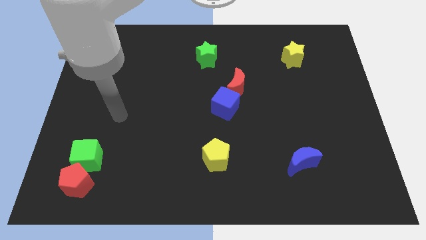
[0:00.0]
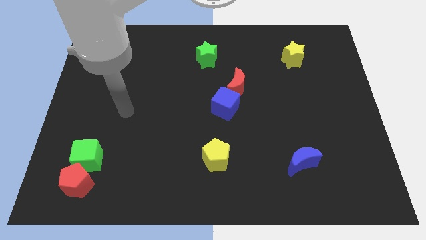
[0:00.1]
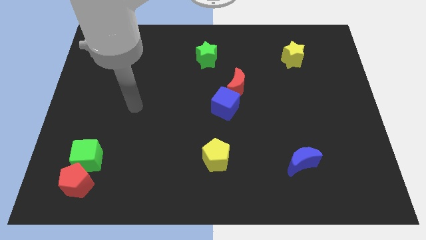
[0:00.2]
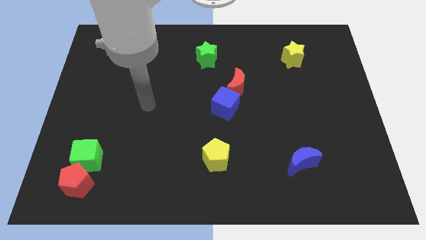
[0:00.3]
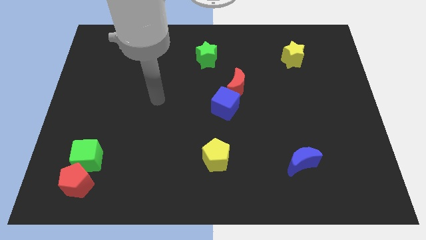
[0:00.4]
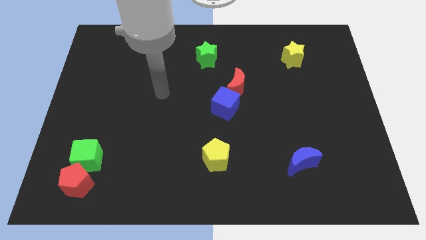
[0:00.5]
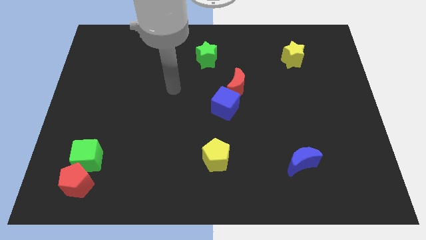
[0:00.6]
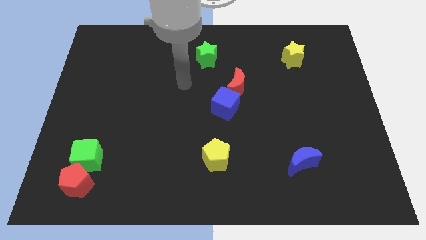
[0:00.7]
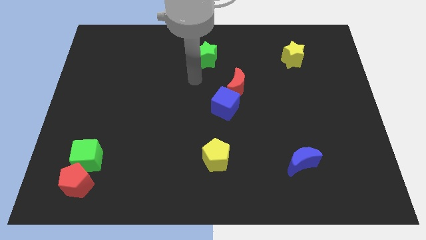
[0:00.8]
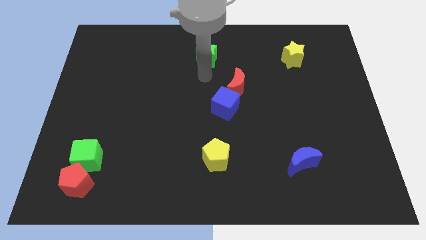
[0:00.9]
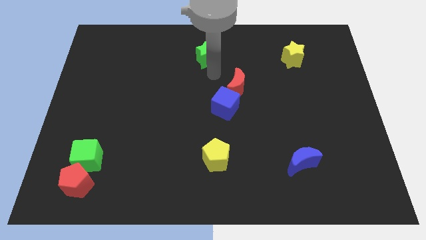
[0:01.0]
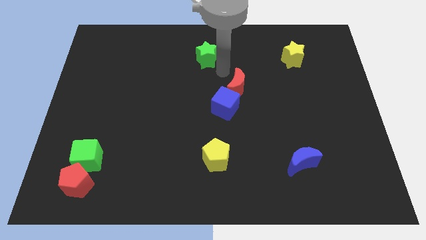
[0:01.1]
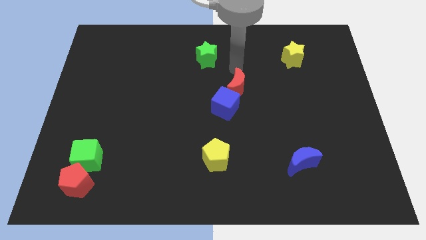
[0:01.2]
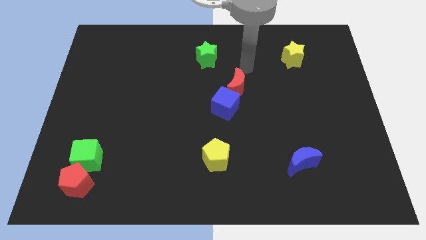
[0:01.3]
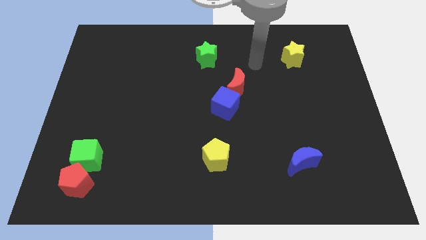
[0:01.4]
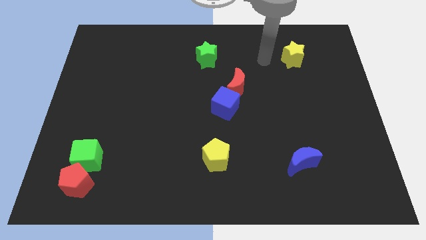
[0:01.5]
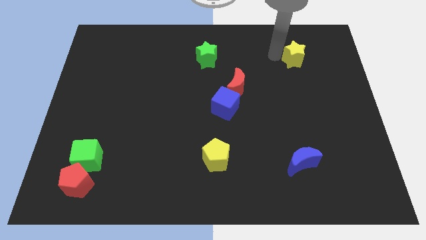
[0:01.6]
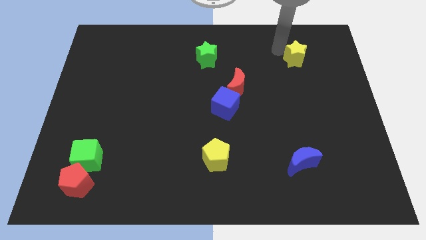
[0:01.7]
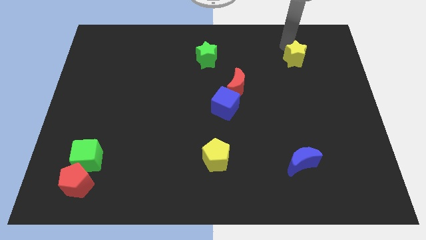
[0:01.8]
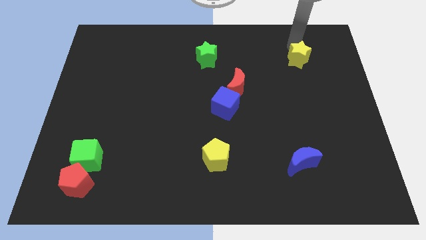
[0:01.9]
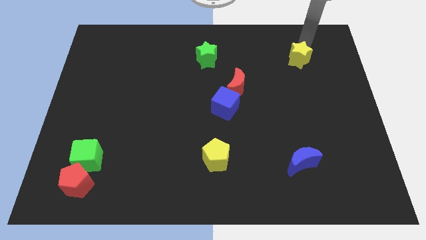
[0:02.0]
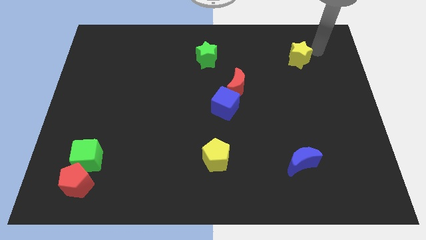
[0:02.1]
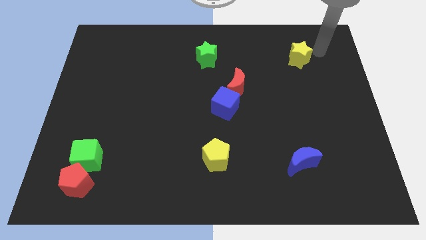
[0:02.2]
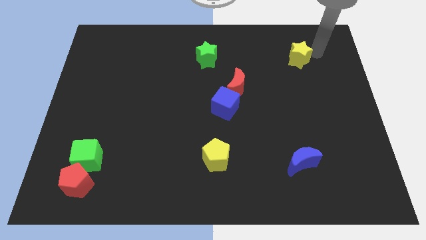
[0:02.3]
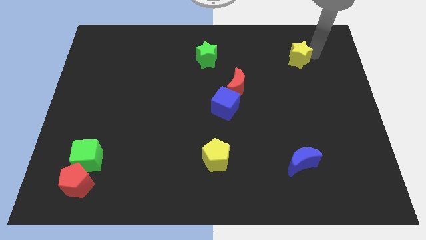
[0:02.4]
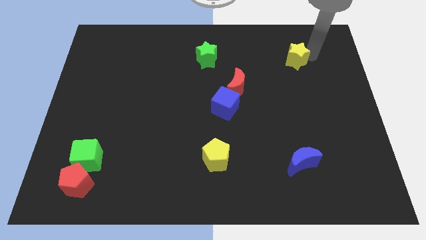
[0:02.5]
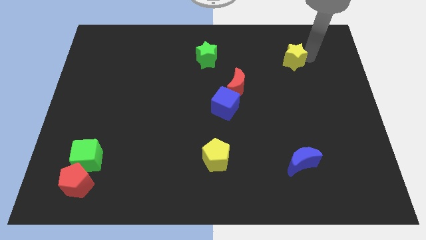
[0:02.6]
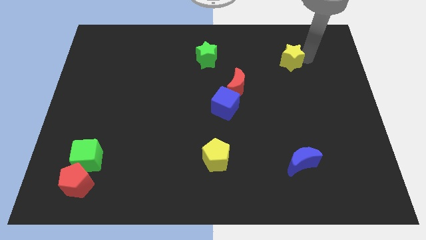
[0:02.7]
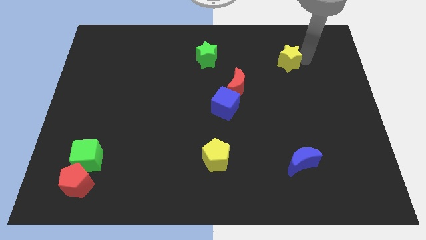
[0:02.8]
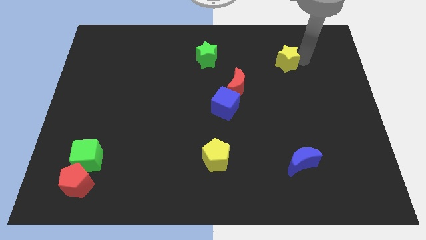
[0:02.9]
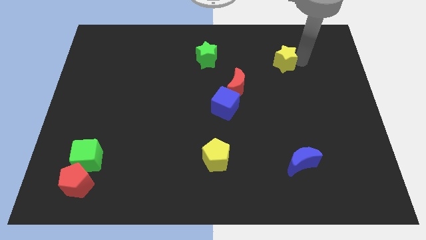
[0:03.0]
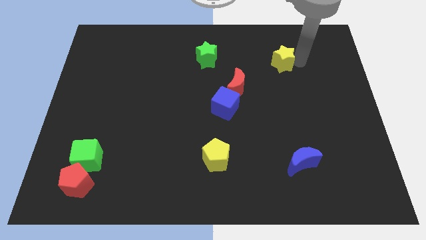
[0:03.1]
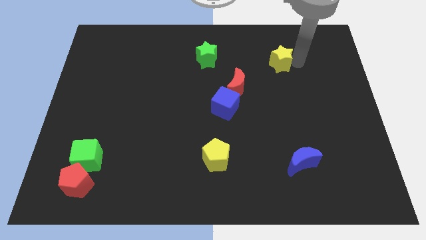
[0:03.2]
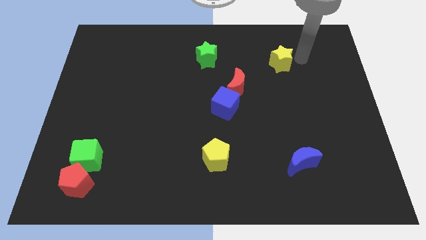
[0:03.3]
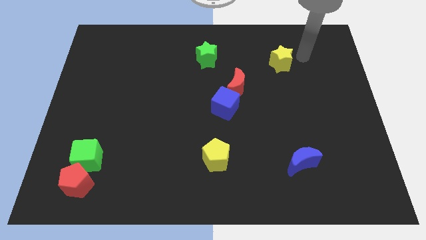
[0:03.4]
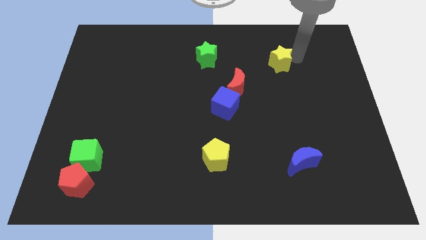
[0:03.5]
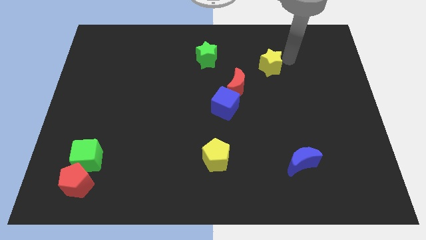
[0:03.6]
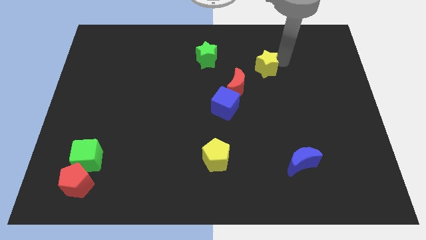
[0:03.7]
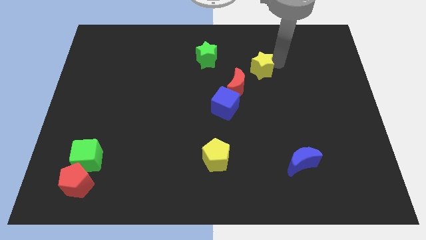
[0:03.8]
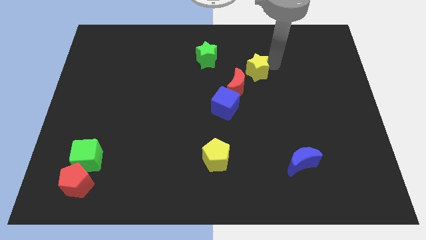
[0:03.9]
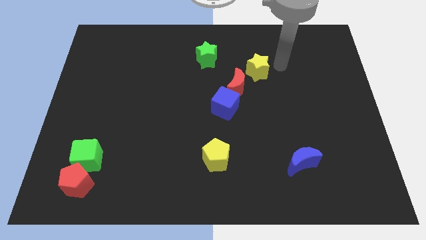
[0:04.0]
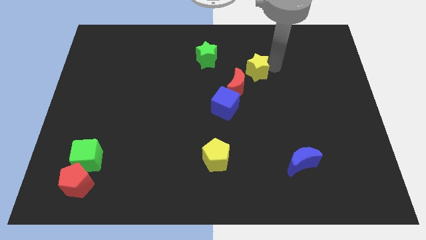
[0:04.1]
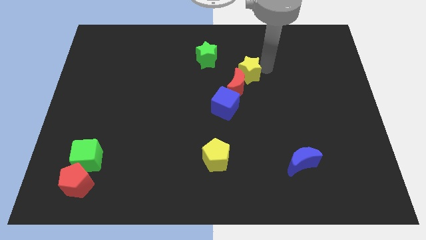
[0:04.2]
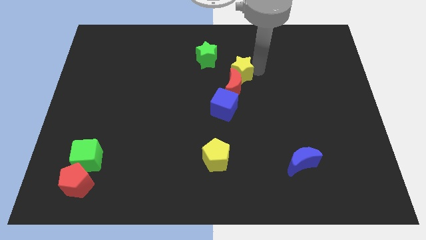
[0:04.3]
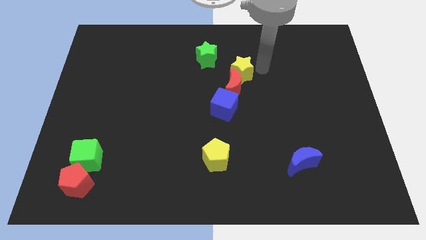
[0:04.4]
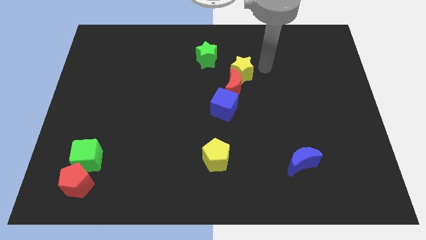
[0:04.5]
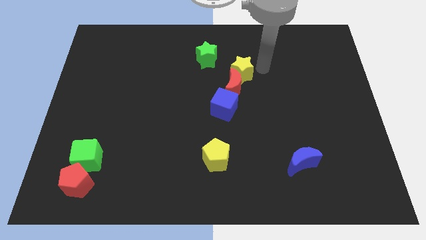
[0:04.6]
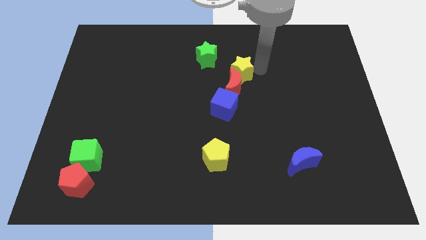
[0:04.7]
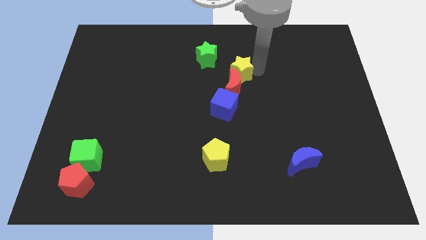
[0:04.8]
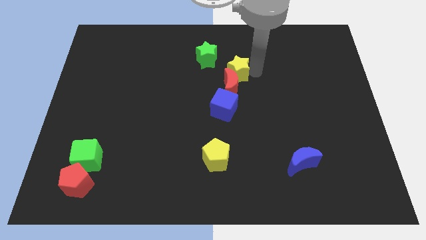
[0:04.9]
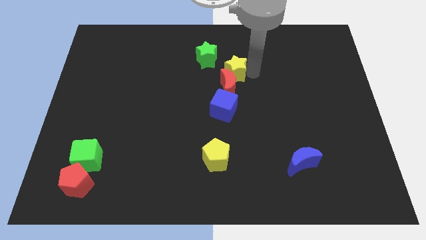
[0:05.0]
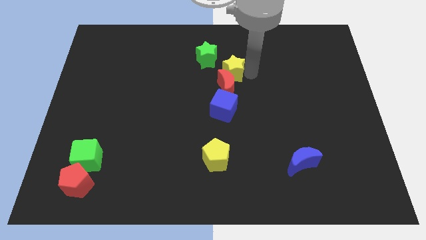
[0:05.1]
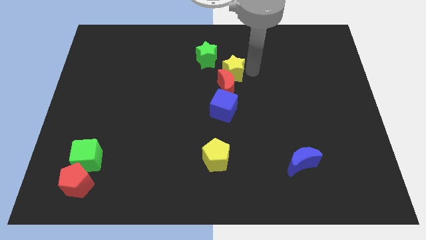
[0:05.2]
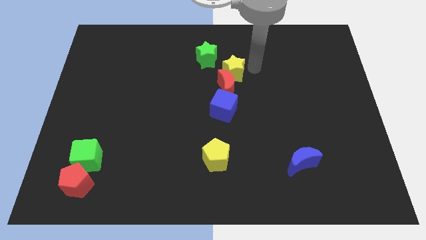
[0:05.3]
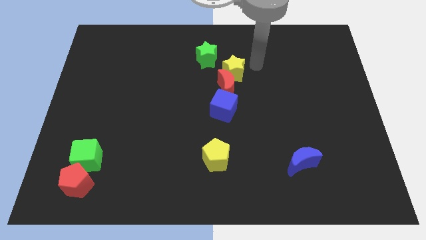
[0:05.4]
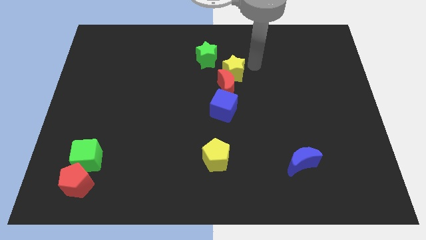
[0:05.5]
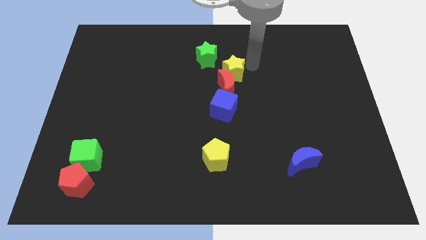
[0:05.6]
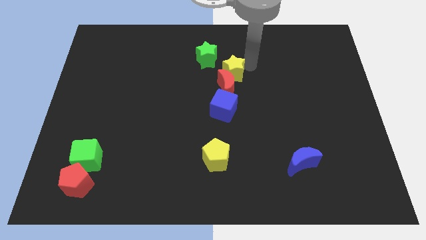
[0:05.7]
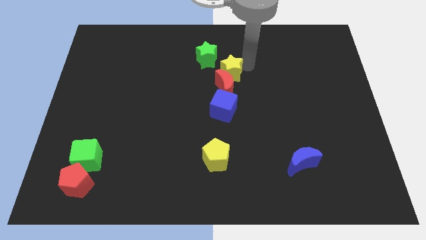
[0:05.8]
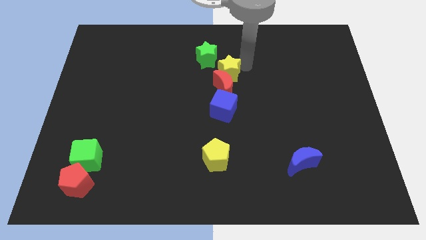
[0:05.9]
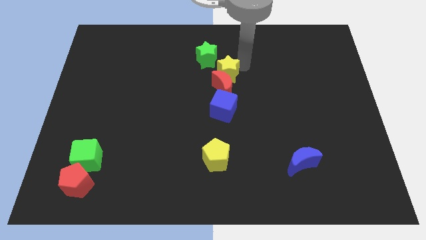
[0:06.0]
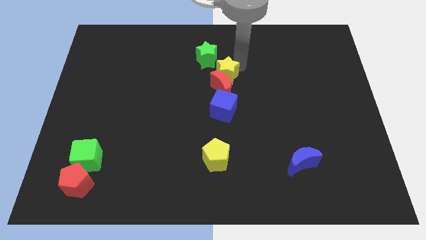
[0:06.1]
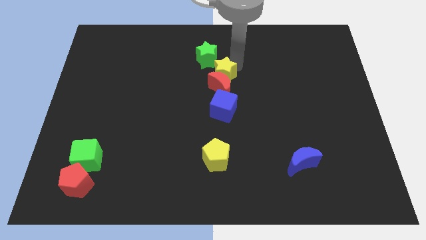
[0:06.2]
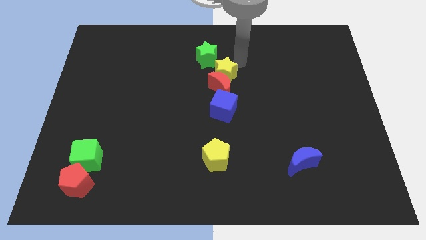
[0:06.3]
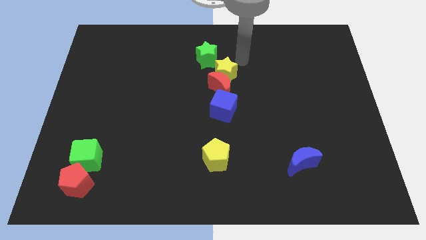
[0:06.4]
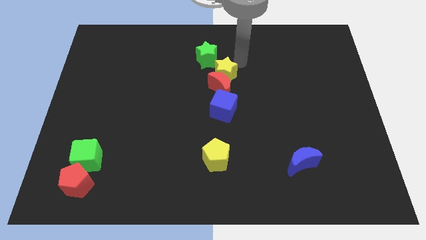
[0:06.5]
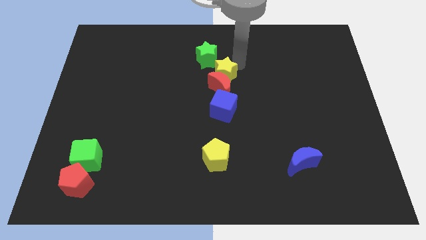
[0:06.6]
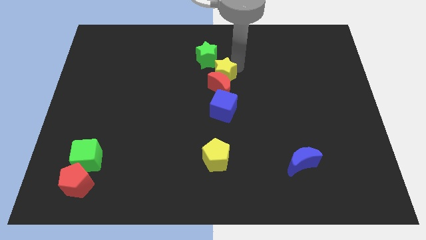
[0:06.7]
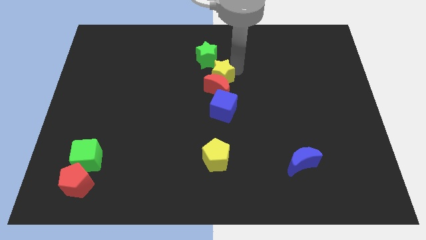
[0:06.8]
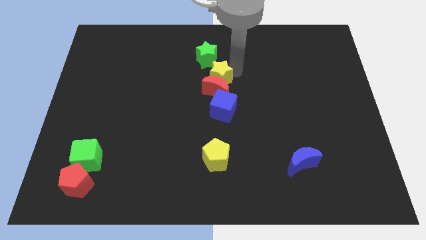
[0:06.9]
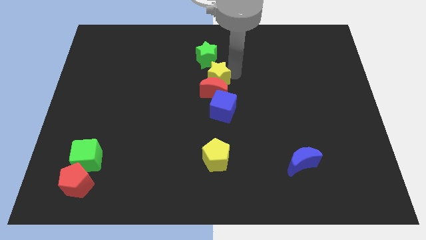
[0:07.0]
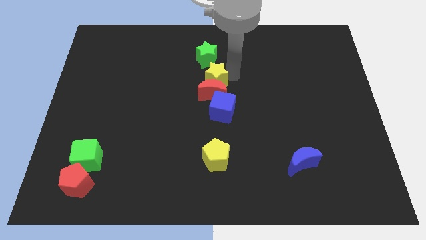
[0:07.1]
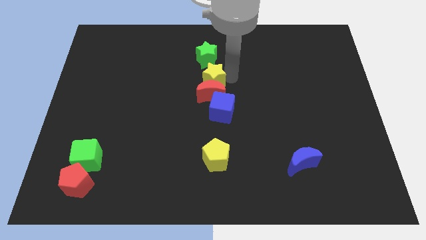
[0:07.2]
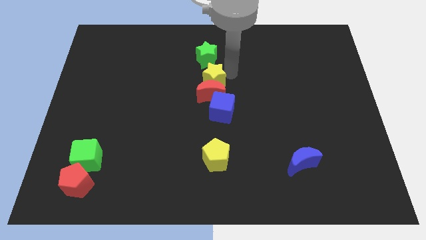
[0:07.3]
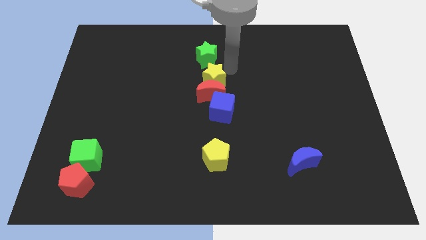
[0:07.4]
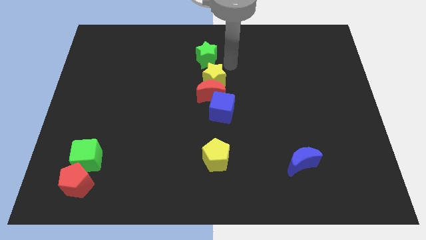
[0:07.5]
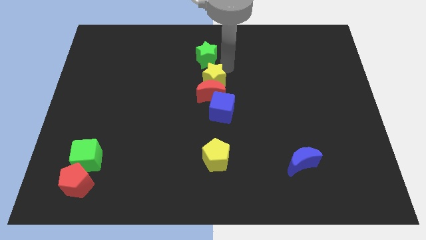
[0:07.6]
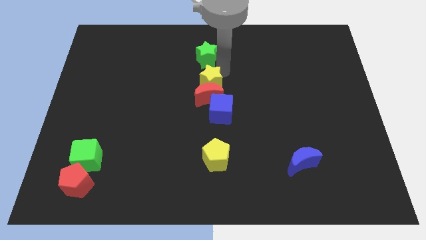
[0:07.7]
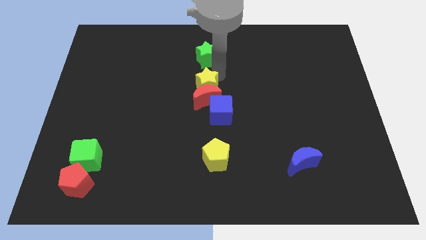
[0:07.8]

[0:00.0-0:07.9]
put the yellow star to the top left of the blue cube
